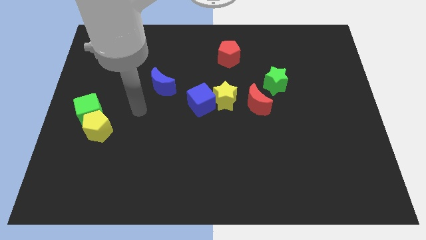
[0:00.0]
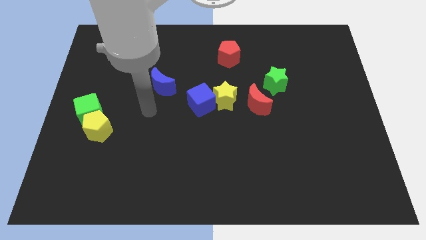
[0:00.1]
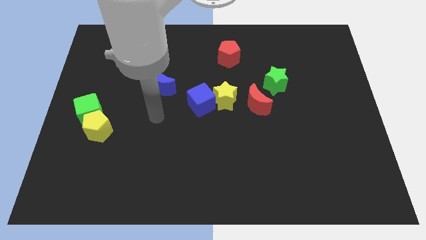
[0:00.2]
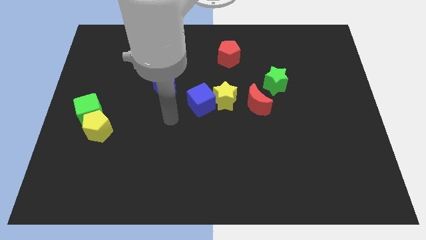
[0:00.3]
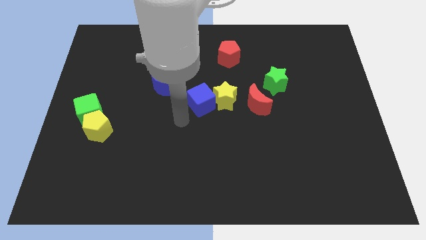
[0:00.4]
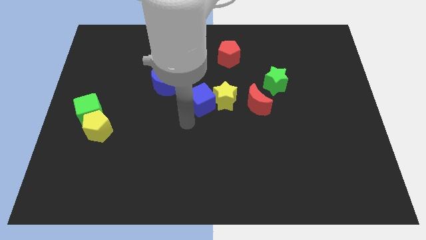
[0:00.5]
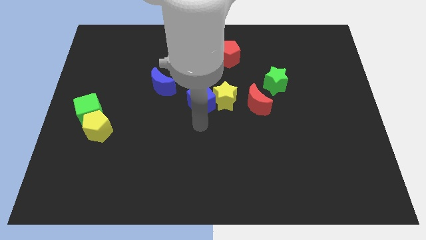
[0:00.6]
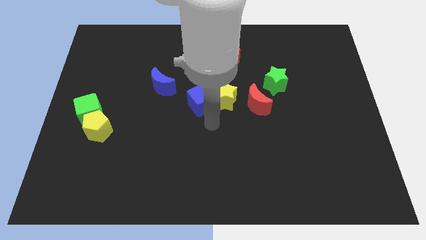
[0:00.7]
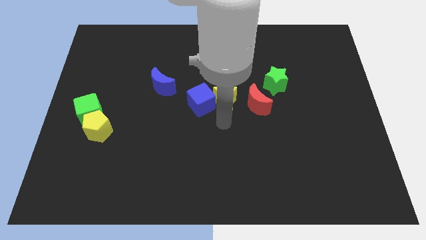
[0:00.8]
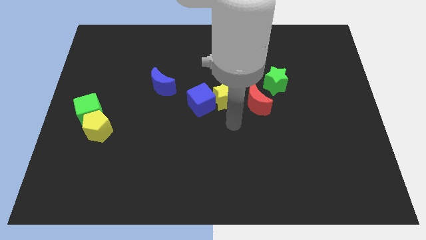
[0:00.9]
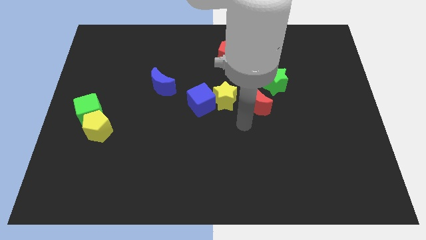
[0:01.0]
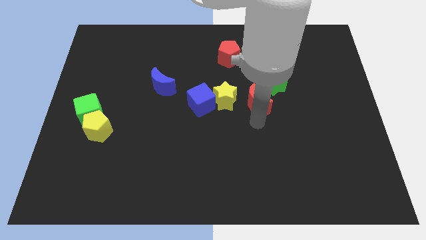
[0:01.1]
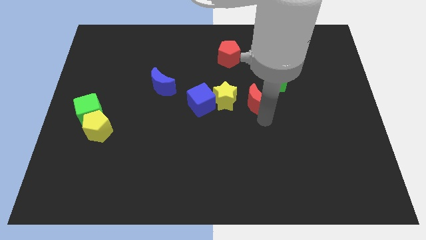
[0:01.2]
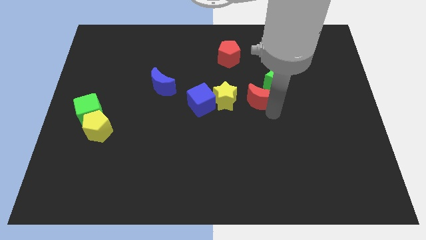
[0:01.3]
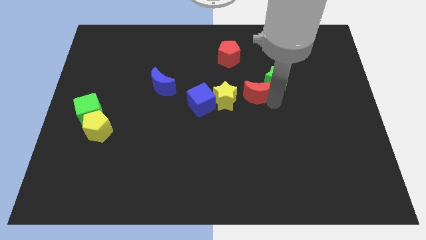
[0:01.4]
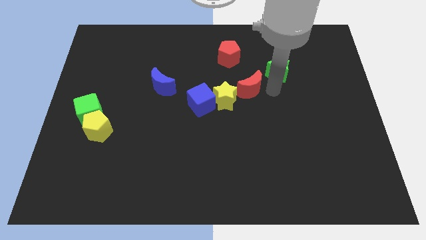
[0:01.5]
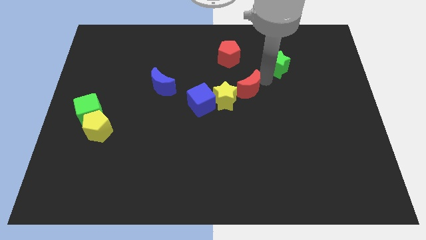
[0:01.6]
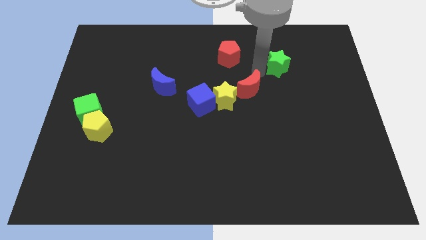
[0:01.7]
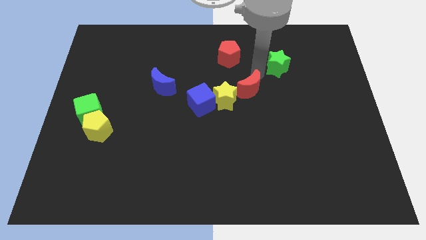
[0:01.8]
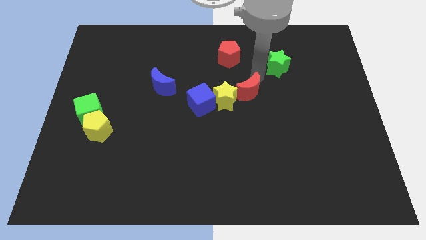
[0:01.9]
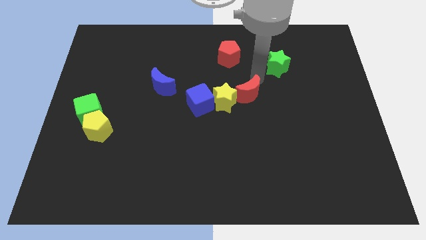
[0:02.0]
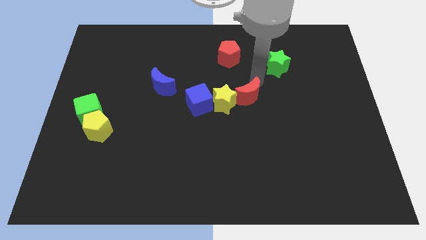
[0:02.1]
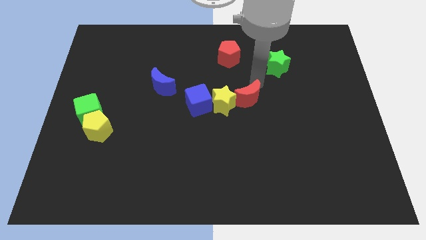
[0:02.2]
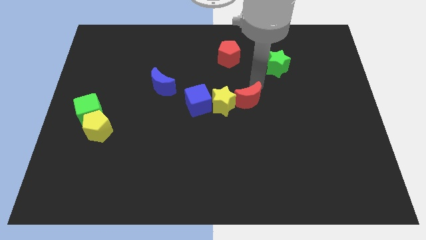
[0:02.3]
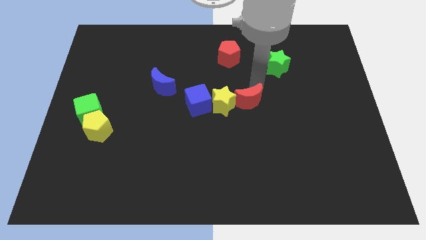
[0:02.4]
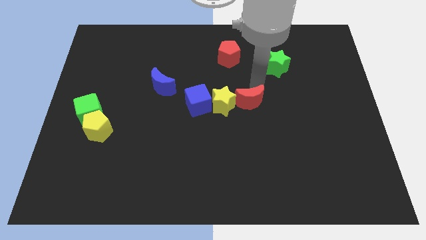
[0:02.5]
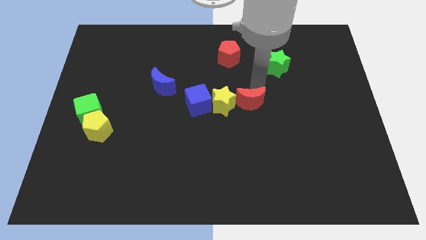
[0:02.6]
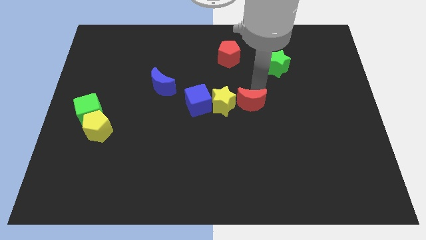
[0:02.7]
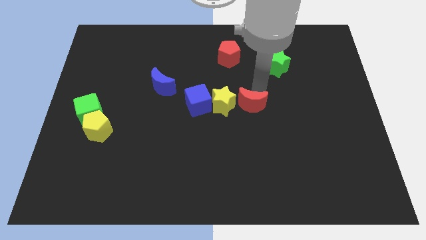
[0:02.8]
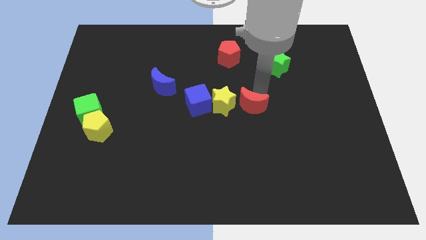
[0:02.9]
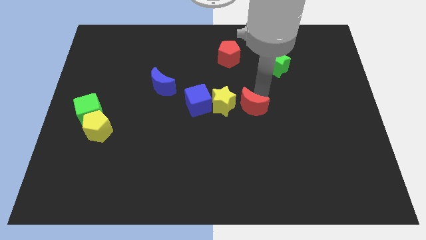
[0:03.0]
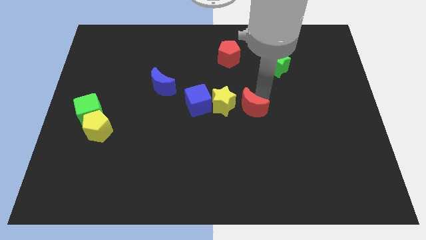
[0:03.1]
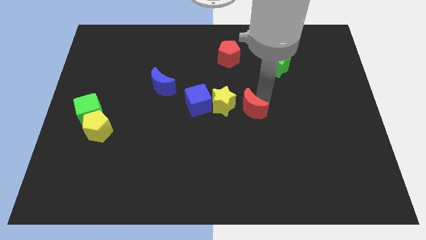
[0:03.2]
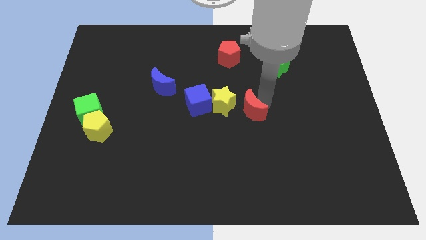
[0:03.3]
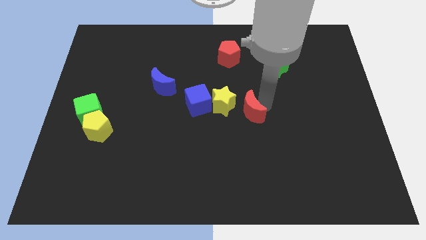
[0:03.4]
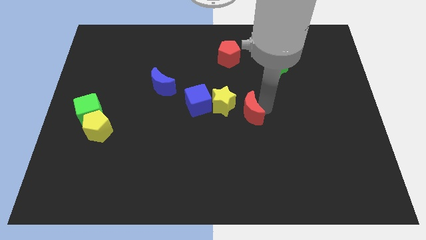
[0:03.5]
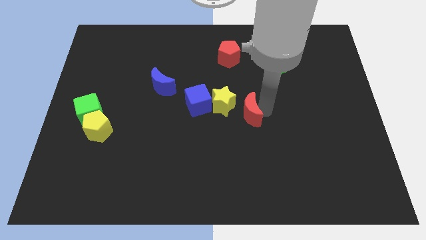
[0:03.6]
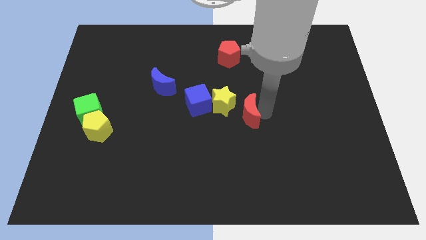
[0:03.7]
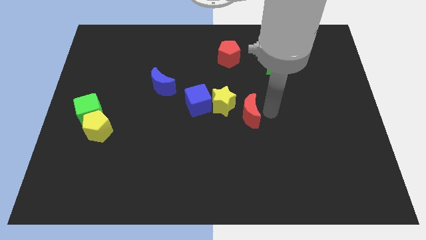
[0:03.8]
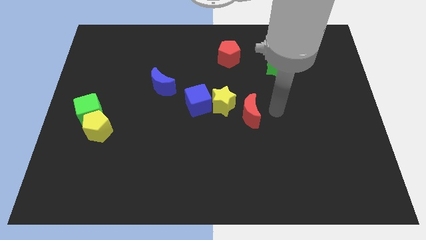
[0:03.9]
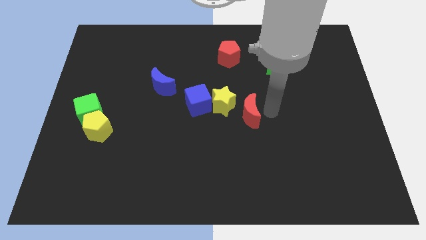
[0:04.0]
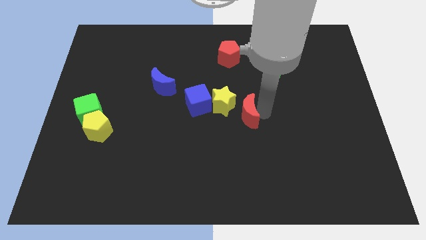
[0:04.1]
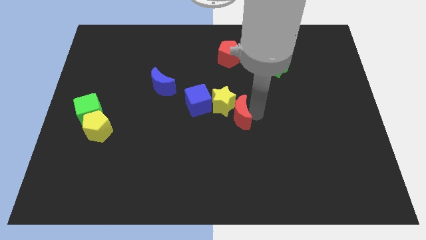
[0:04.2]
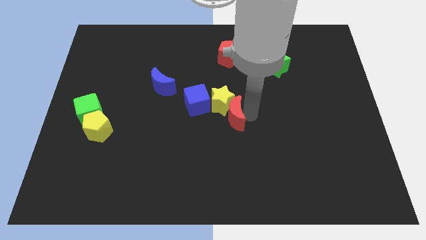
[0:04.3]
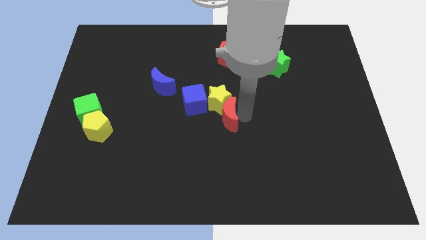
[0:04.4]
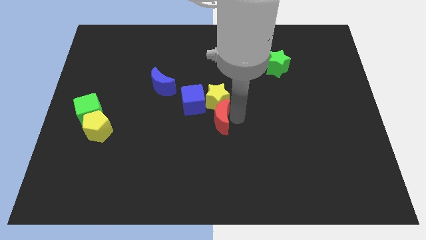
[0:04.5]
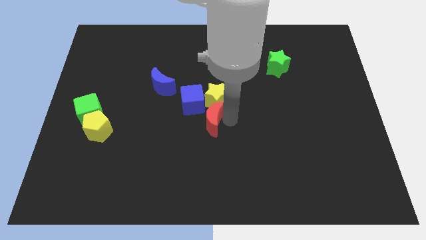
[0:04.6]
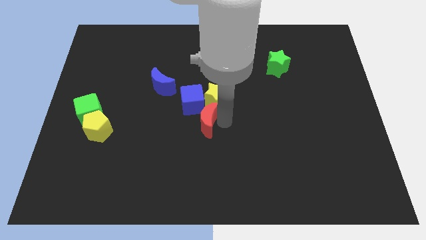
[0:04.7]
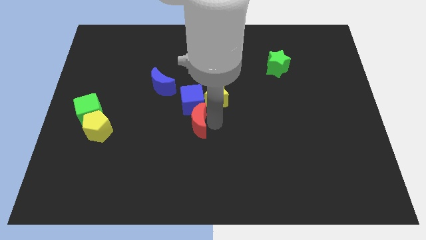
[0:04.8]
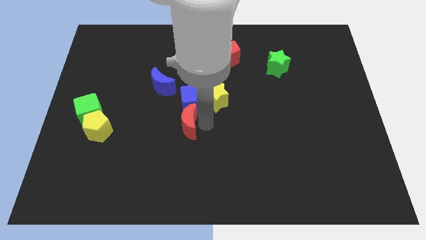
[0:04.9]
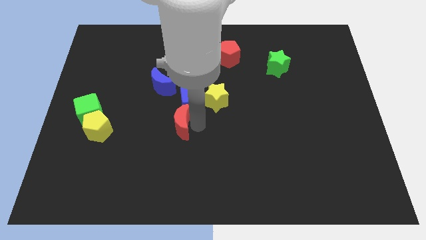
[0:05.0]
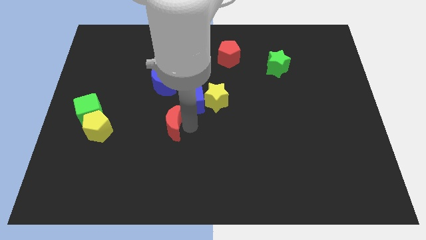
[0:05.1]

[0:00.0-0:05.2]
move the red moon below the blue moon

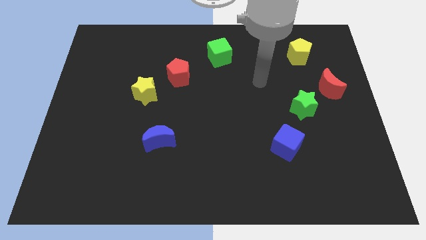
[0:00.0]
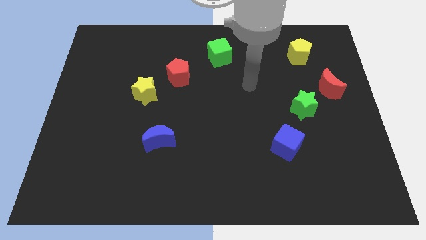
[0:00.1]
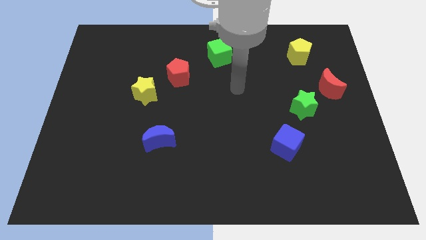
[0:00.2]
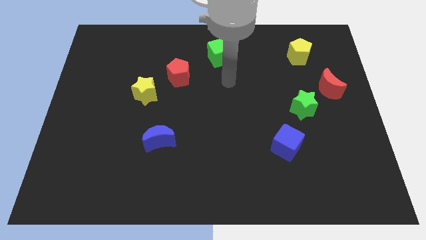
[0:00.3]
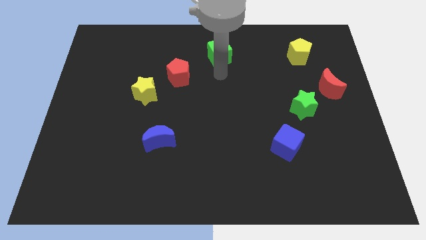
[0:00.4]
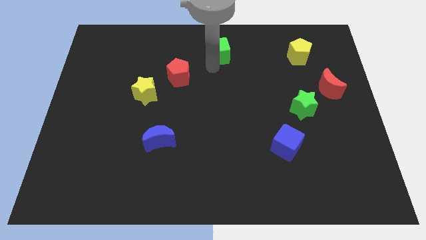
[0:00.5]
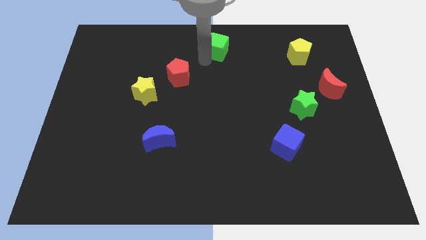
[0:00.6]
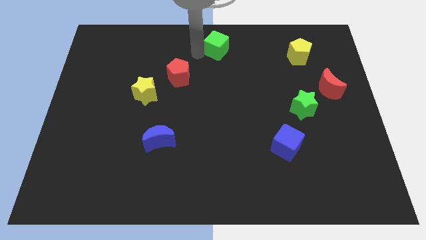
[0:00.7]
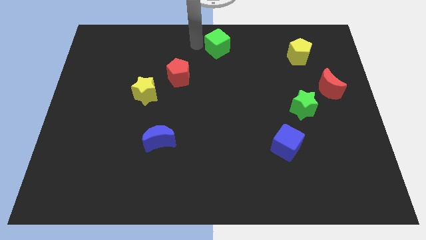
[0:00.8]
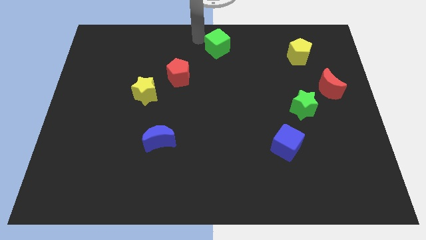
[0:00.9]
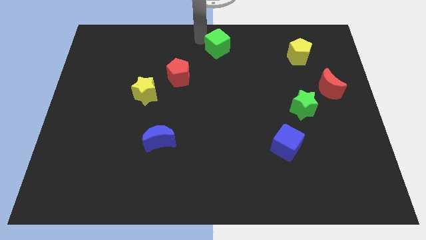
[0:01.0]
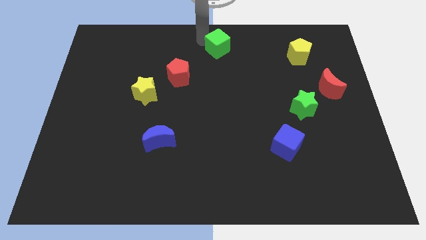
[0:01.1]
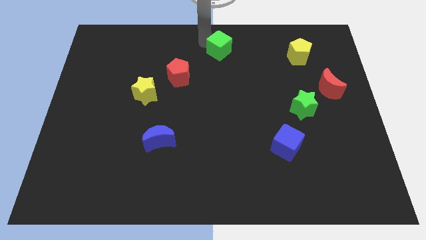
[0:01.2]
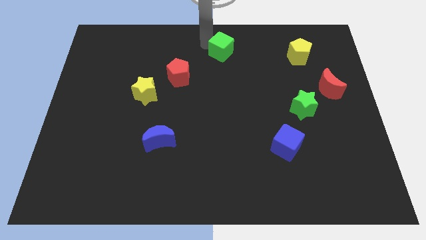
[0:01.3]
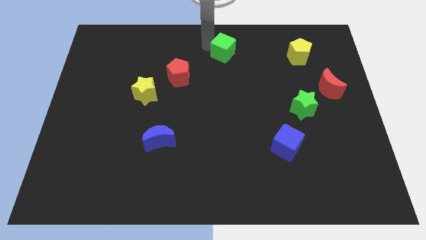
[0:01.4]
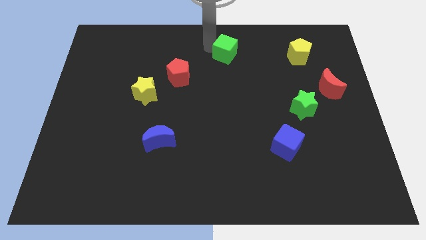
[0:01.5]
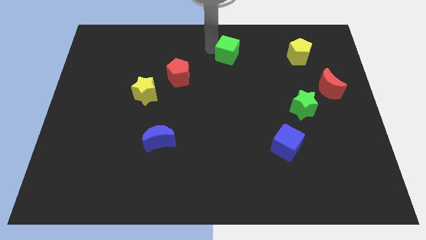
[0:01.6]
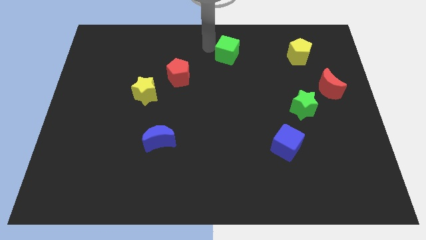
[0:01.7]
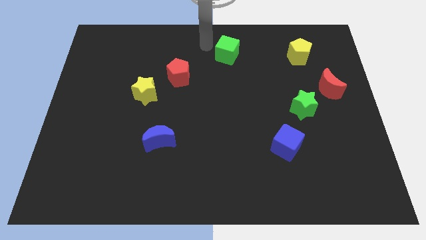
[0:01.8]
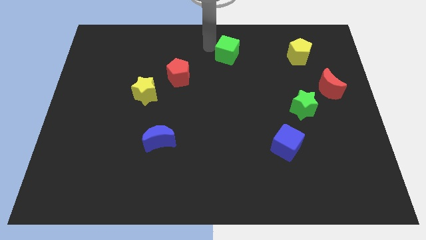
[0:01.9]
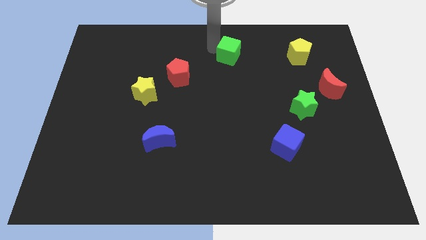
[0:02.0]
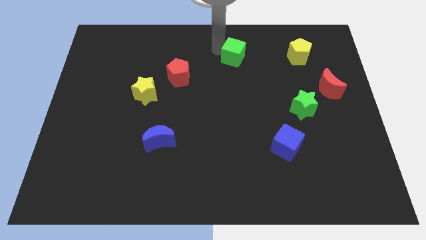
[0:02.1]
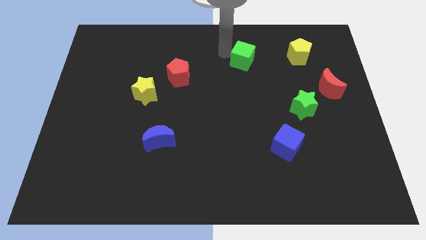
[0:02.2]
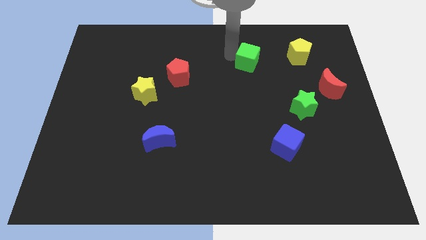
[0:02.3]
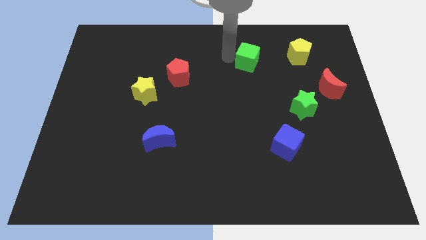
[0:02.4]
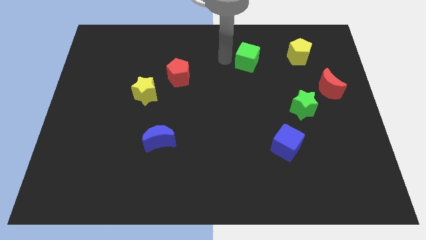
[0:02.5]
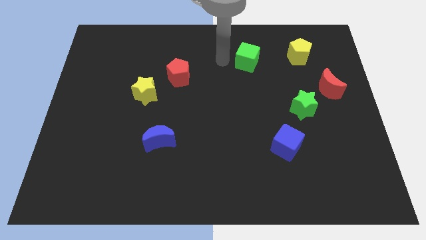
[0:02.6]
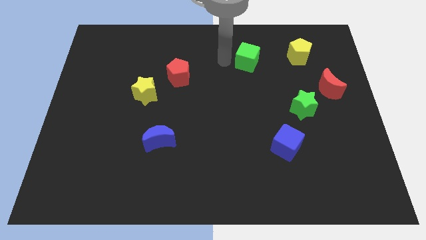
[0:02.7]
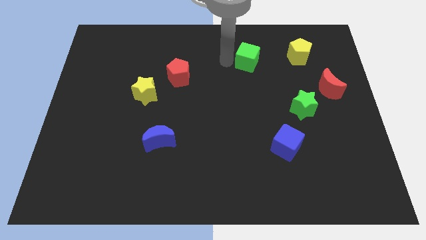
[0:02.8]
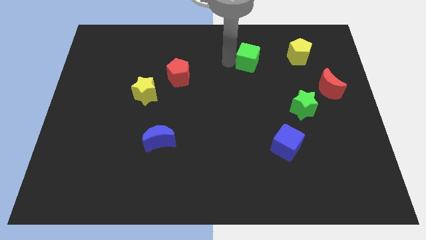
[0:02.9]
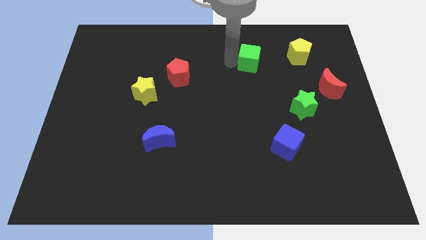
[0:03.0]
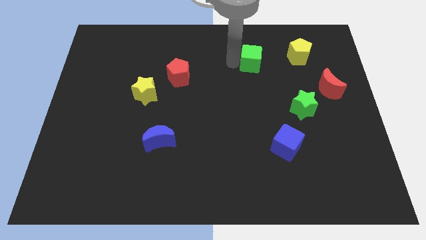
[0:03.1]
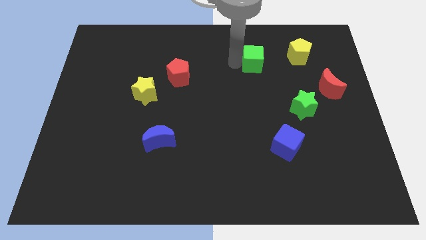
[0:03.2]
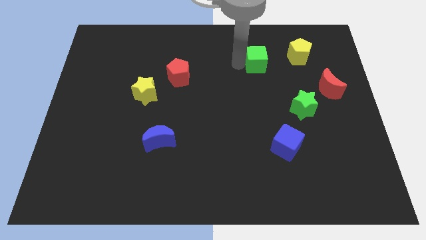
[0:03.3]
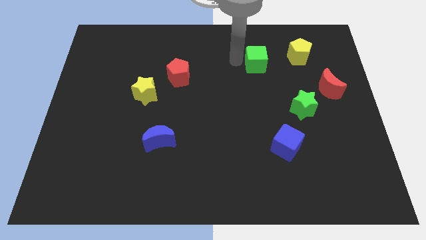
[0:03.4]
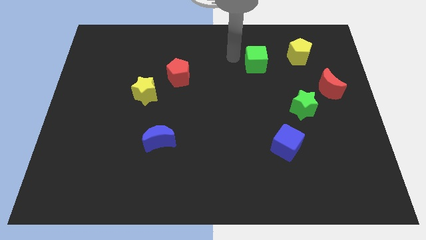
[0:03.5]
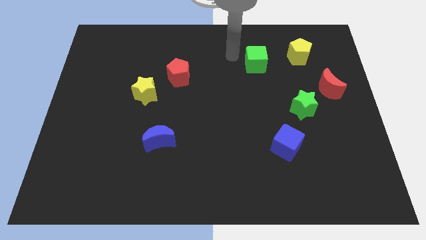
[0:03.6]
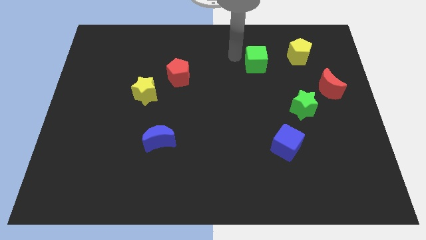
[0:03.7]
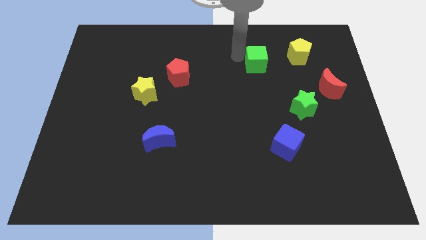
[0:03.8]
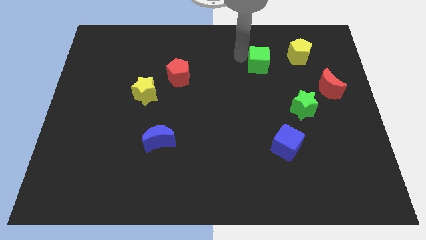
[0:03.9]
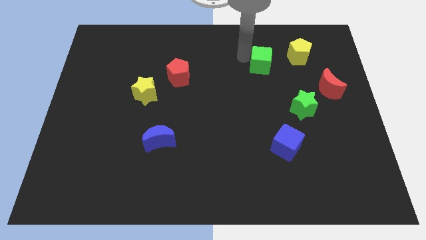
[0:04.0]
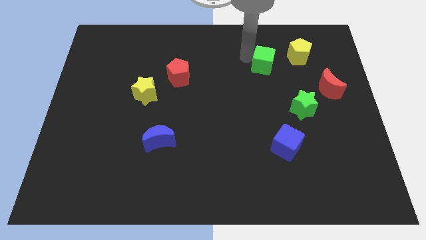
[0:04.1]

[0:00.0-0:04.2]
put the green cube to the bottom left side of the yellow pentagon
